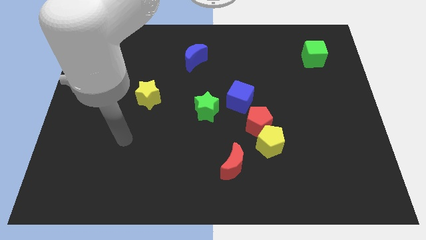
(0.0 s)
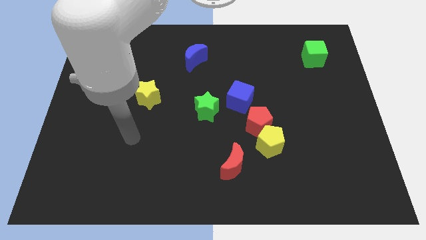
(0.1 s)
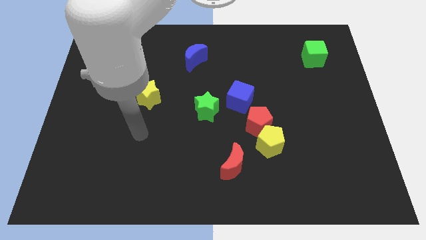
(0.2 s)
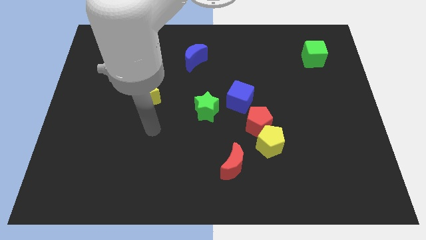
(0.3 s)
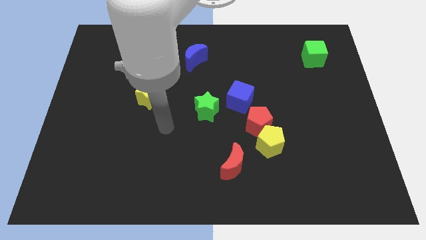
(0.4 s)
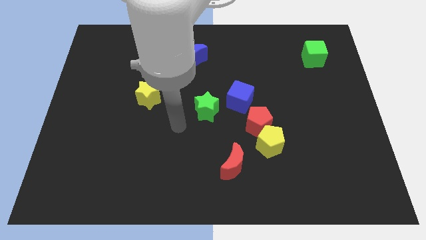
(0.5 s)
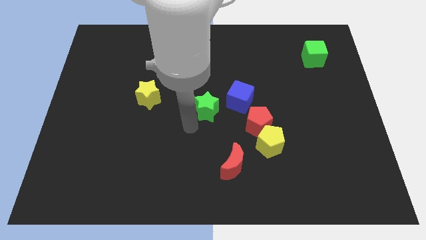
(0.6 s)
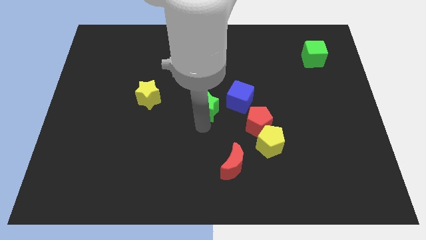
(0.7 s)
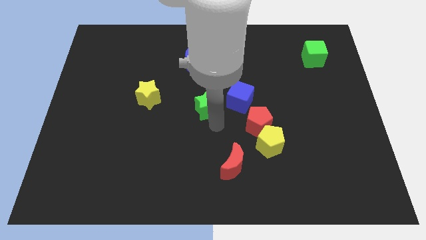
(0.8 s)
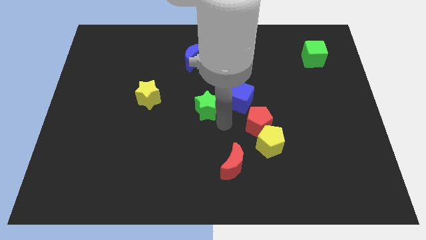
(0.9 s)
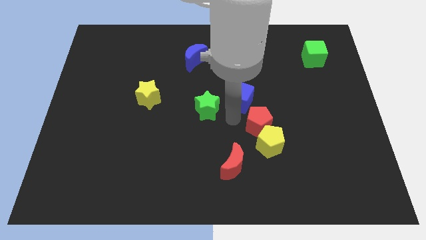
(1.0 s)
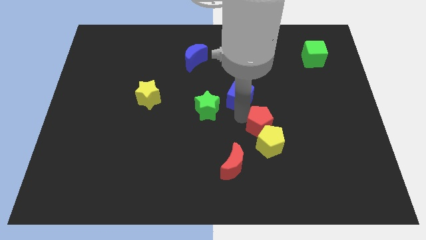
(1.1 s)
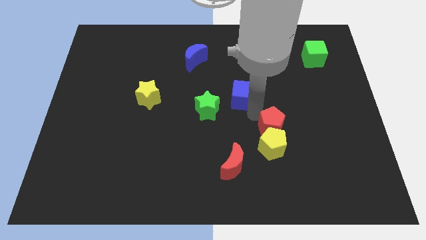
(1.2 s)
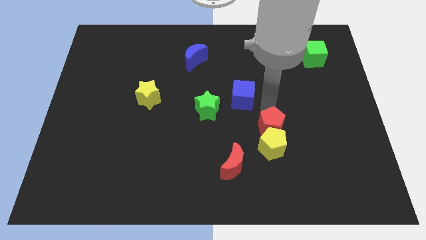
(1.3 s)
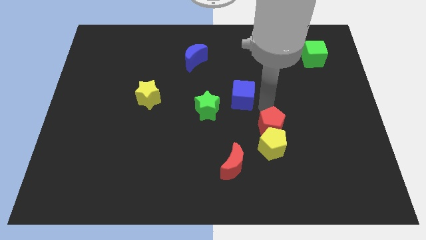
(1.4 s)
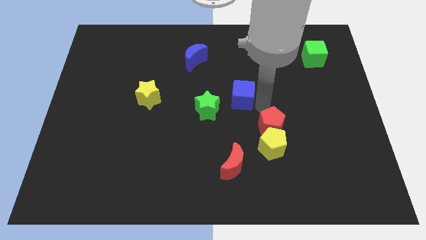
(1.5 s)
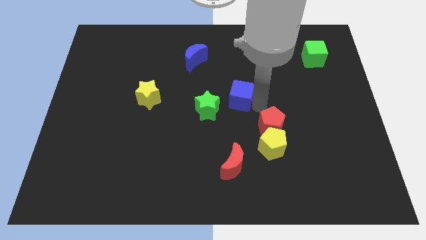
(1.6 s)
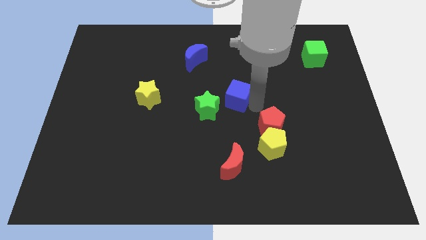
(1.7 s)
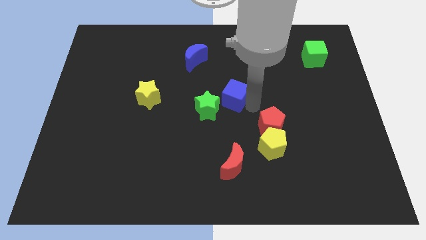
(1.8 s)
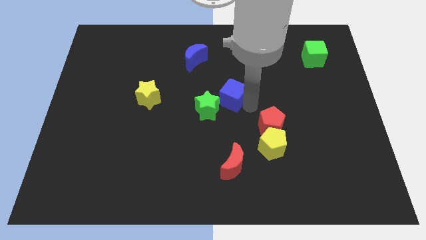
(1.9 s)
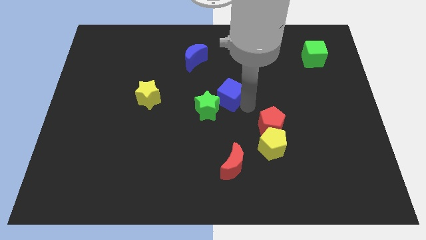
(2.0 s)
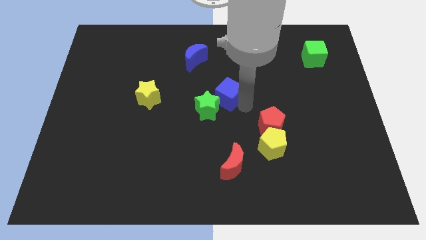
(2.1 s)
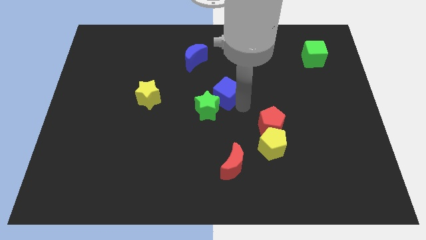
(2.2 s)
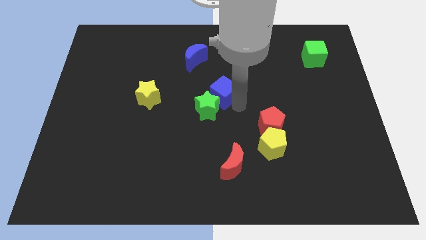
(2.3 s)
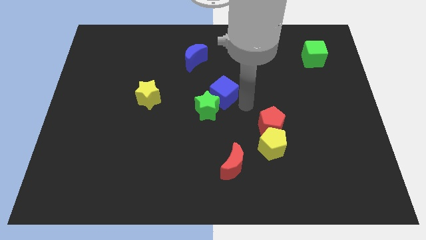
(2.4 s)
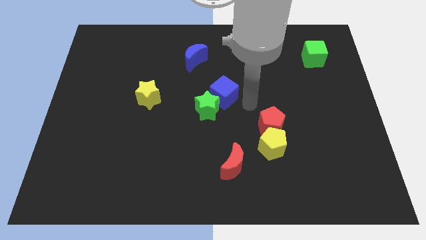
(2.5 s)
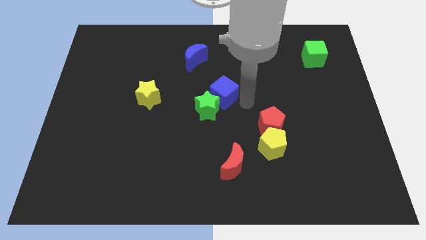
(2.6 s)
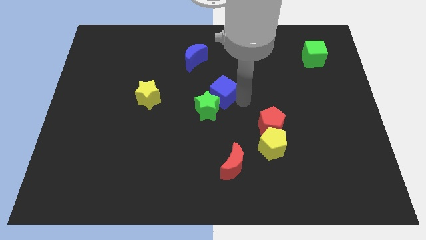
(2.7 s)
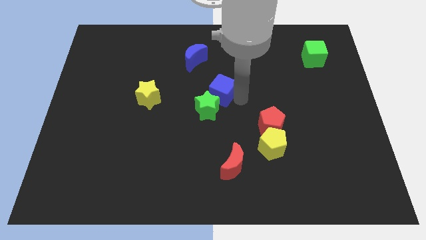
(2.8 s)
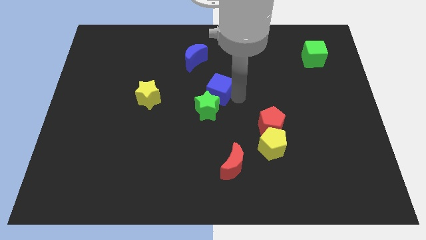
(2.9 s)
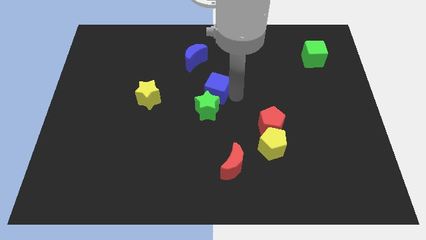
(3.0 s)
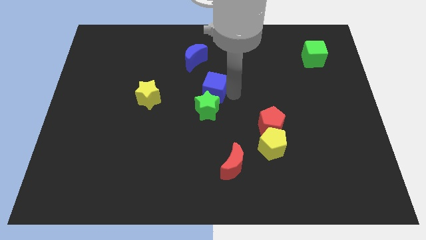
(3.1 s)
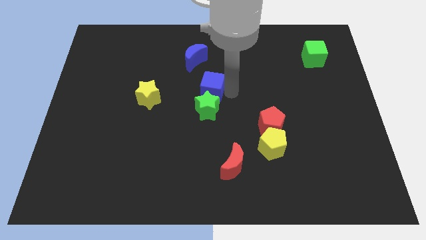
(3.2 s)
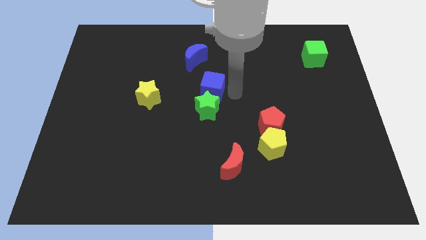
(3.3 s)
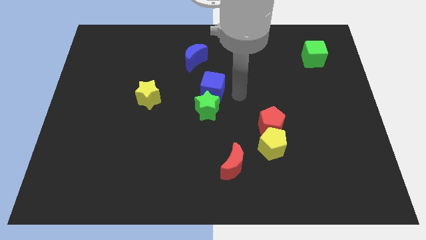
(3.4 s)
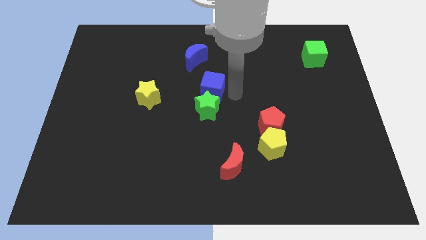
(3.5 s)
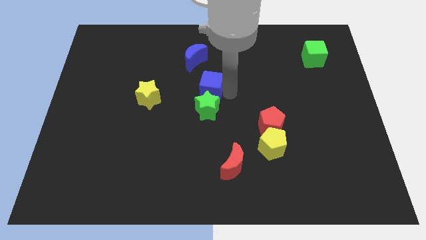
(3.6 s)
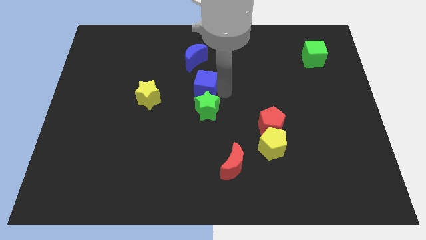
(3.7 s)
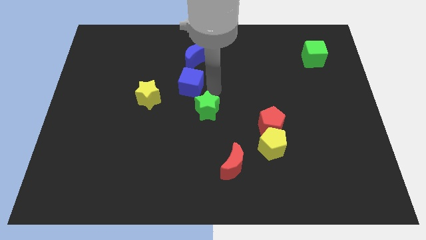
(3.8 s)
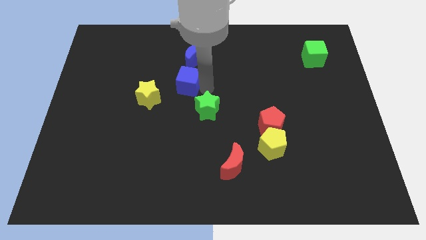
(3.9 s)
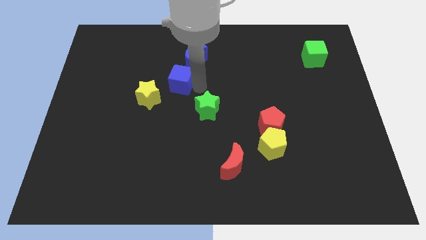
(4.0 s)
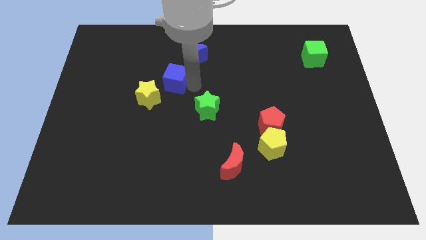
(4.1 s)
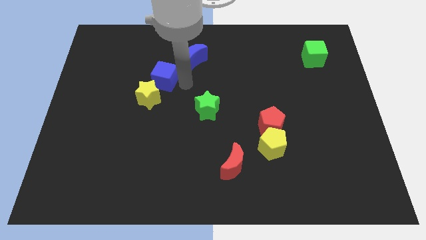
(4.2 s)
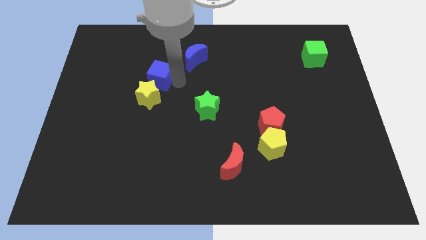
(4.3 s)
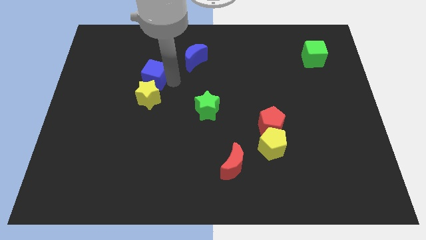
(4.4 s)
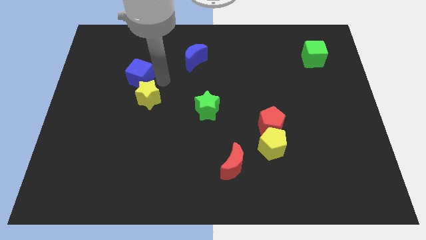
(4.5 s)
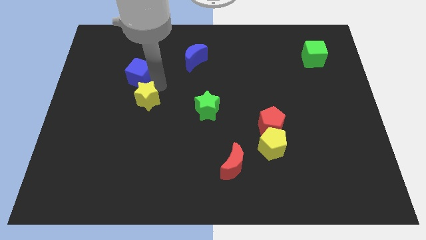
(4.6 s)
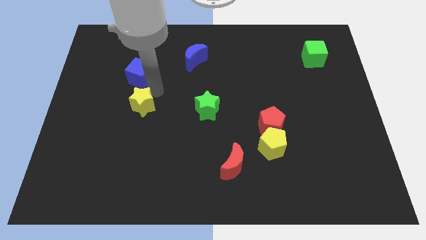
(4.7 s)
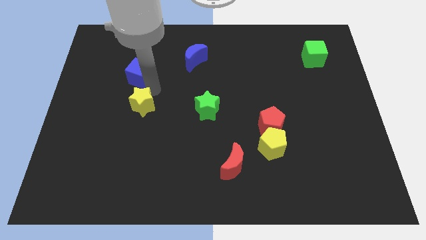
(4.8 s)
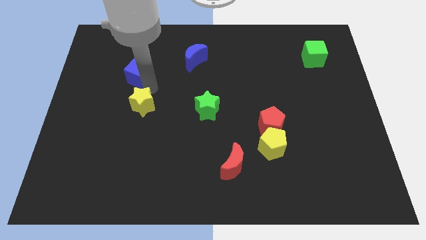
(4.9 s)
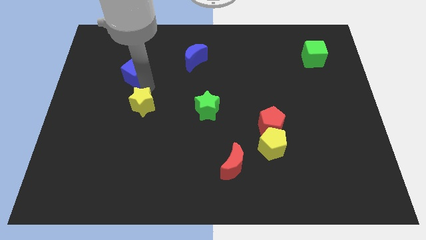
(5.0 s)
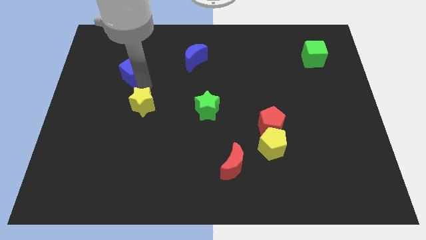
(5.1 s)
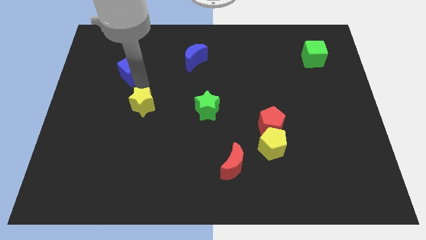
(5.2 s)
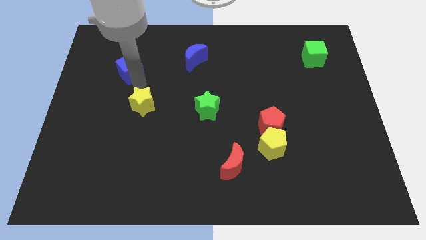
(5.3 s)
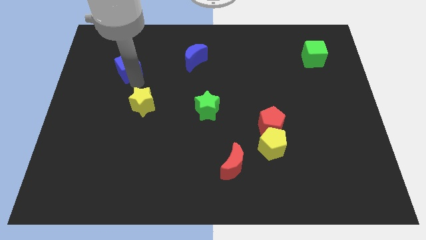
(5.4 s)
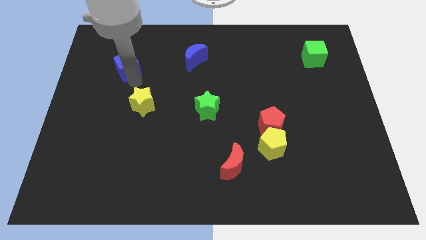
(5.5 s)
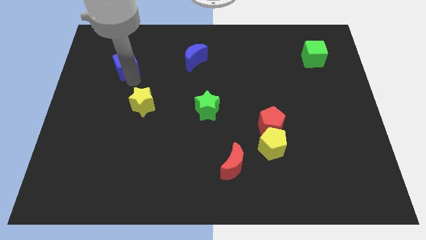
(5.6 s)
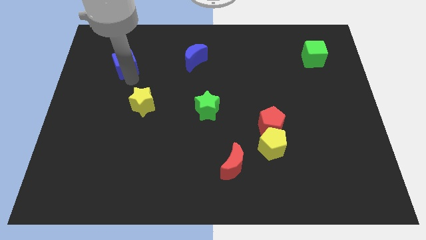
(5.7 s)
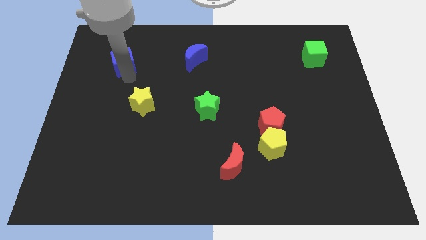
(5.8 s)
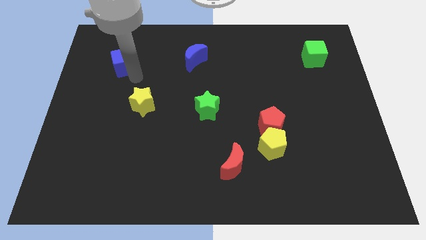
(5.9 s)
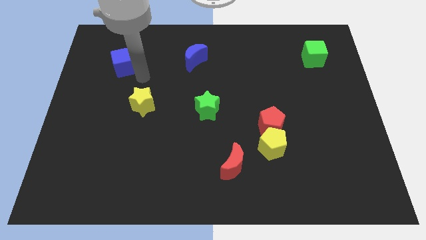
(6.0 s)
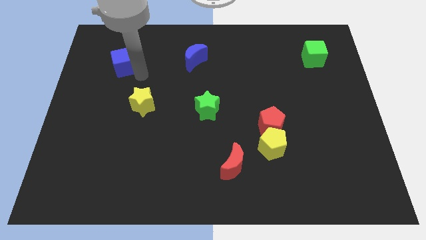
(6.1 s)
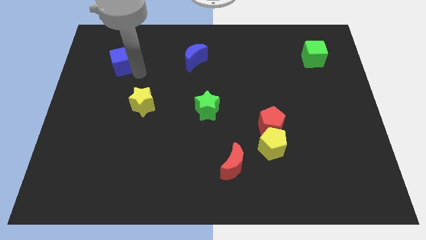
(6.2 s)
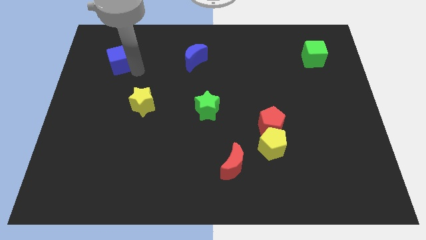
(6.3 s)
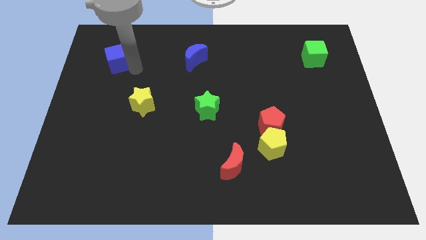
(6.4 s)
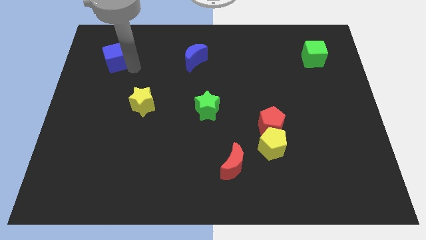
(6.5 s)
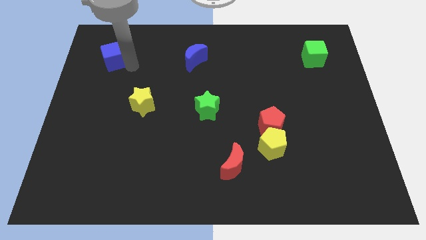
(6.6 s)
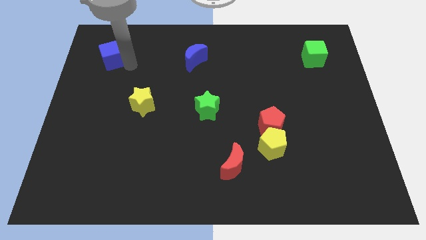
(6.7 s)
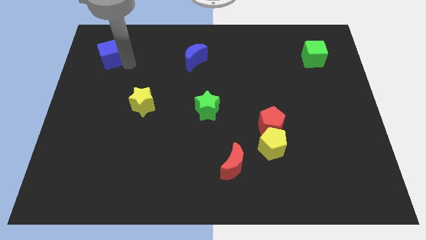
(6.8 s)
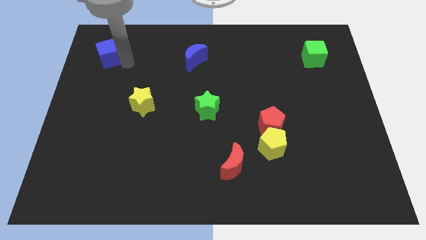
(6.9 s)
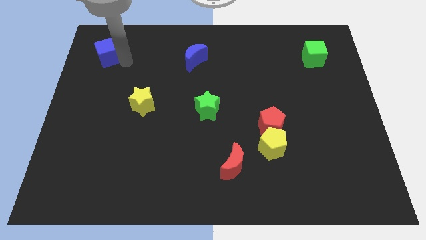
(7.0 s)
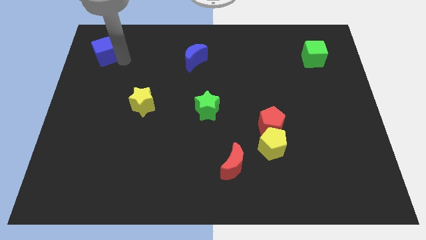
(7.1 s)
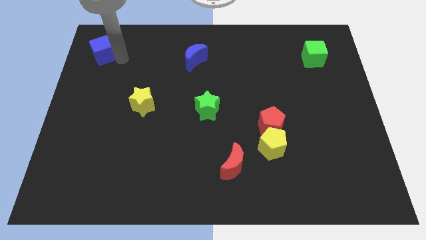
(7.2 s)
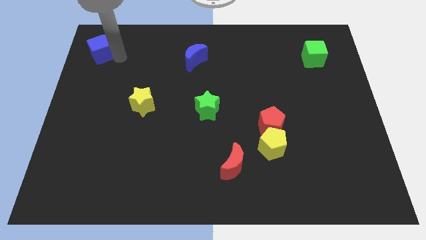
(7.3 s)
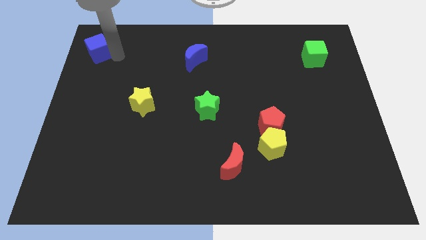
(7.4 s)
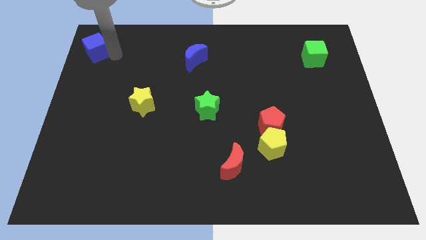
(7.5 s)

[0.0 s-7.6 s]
put the blue cube to the top left
